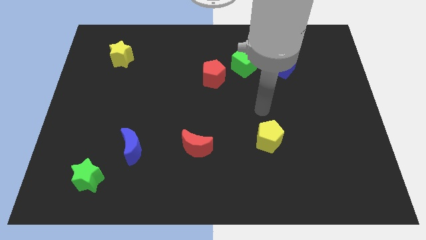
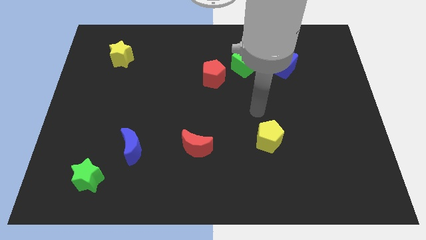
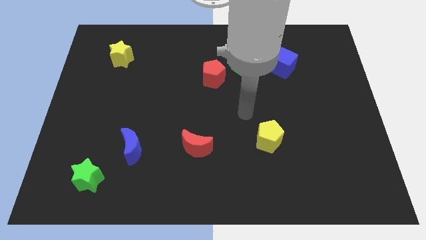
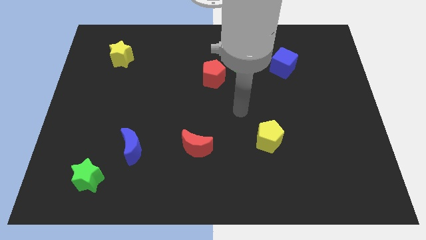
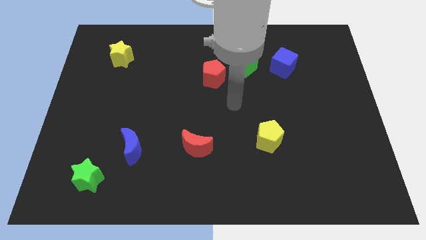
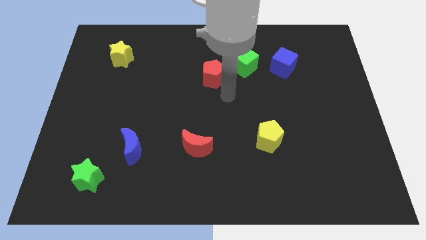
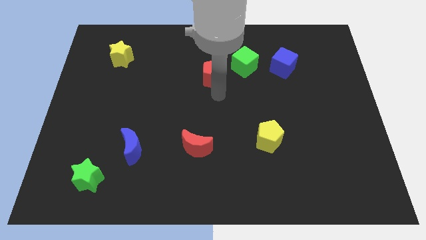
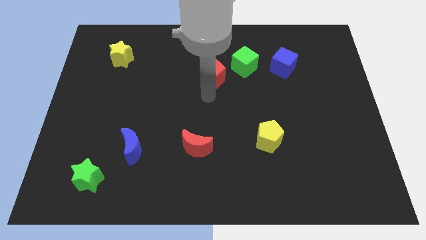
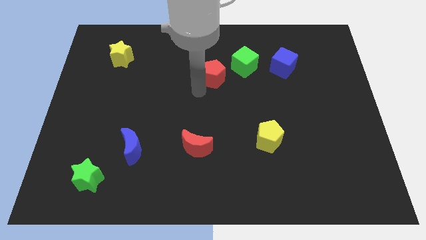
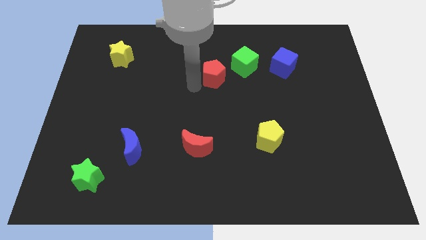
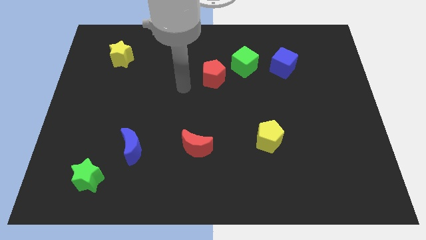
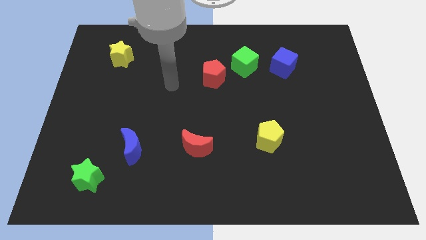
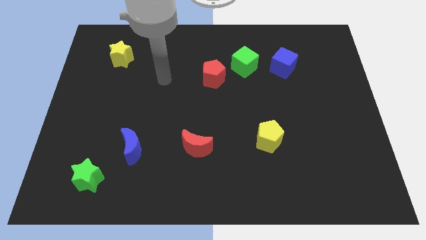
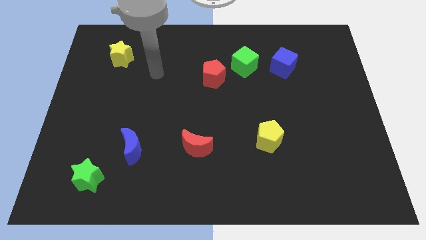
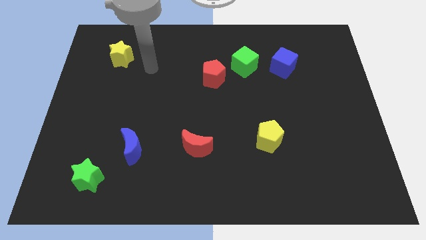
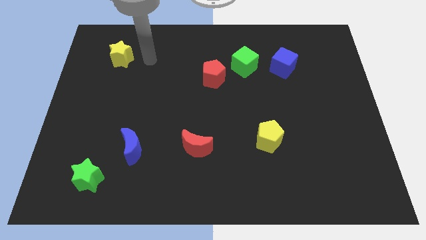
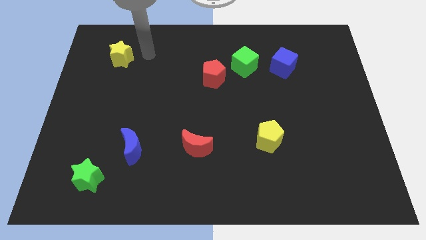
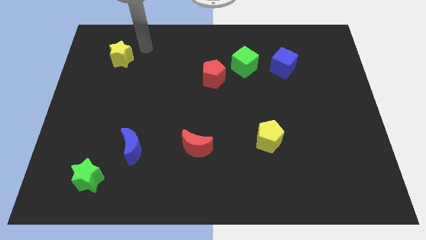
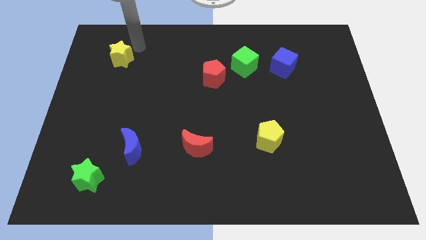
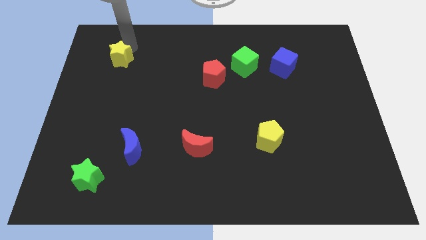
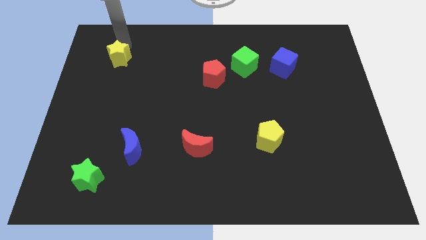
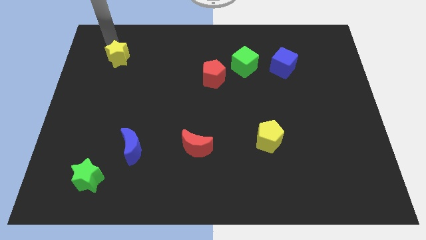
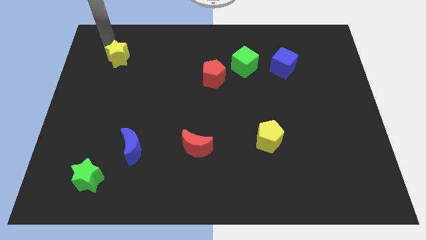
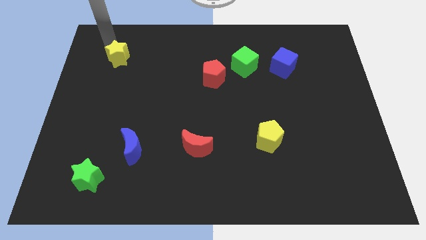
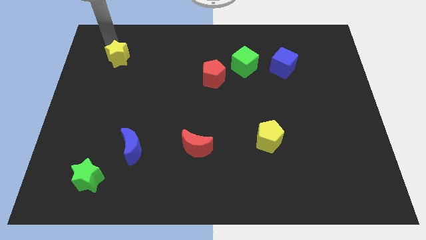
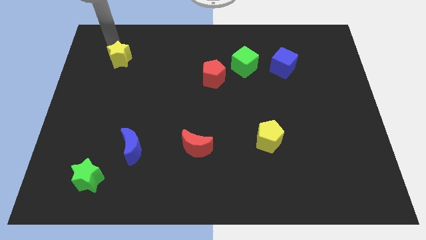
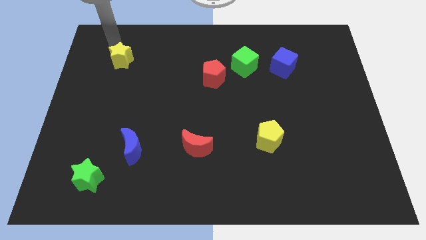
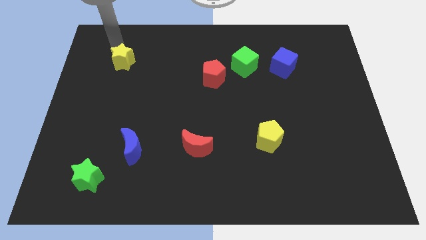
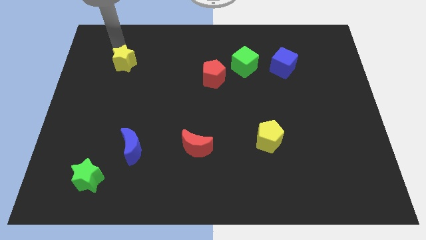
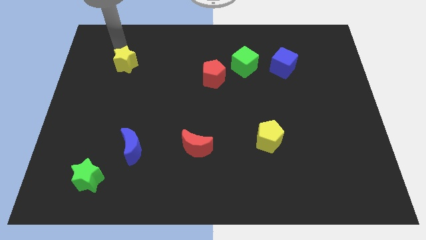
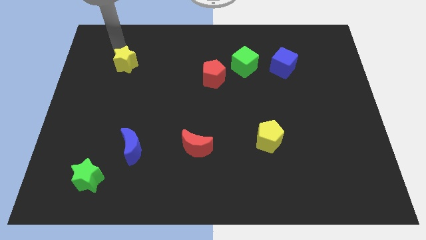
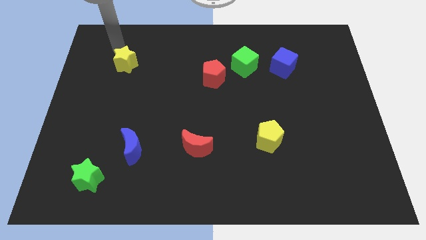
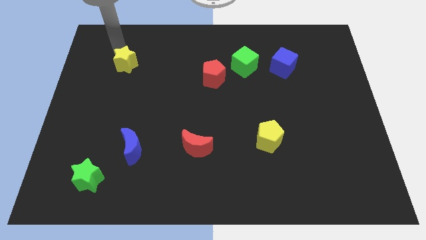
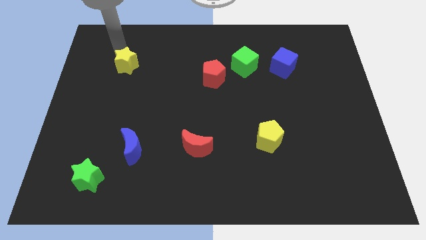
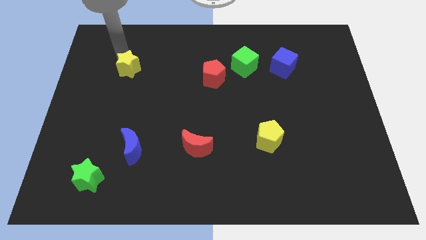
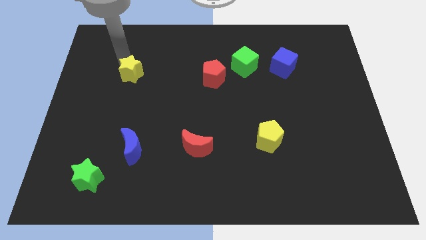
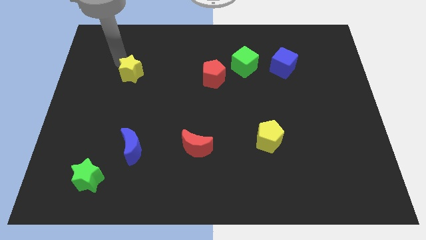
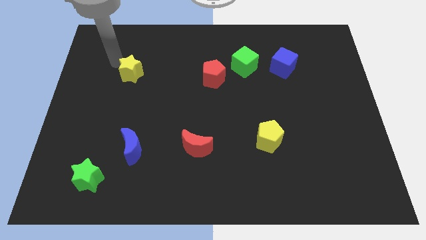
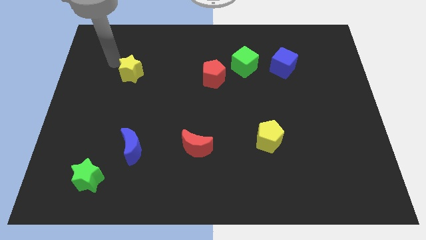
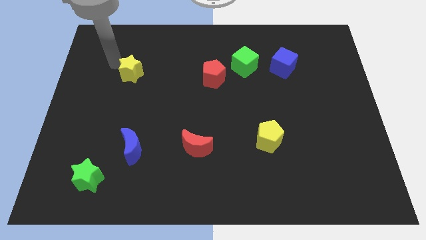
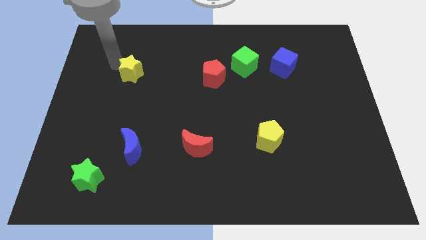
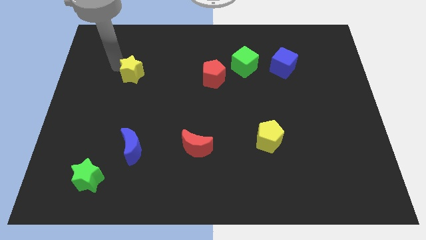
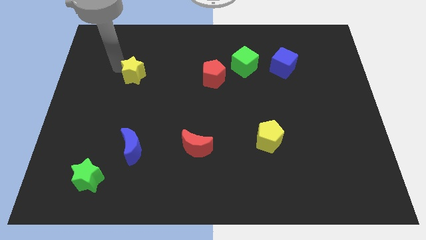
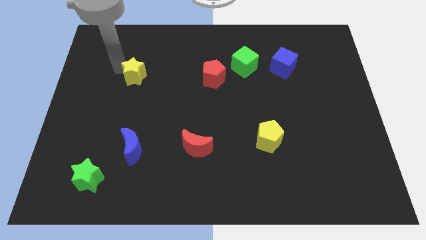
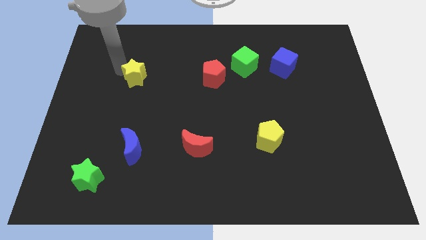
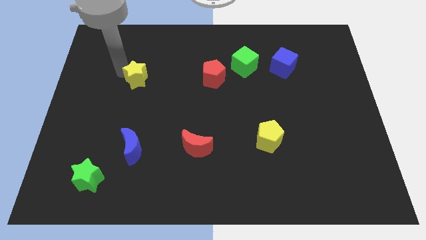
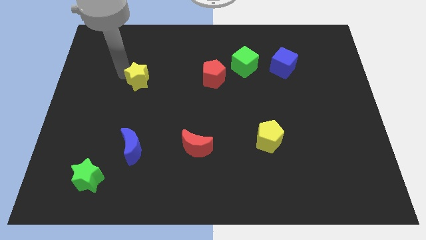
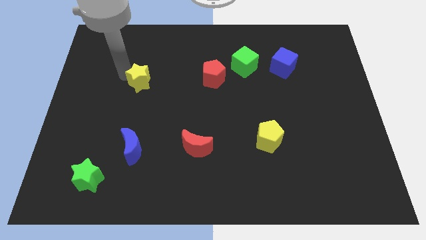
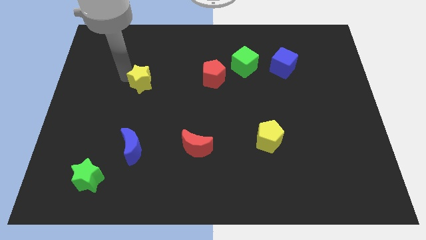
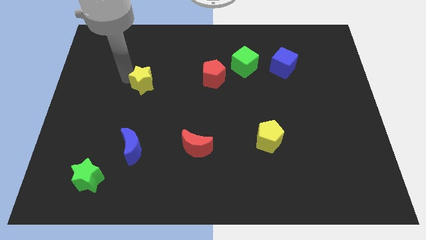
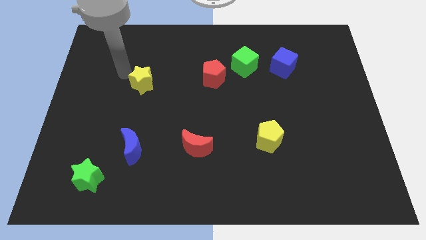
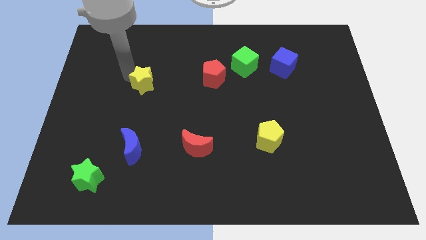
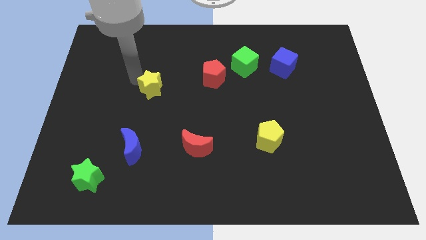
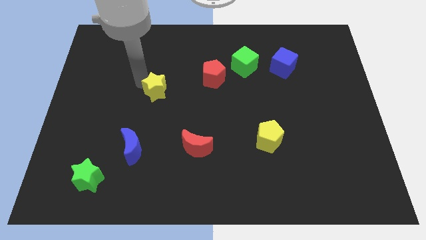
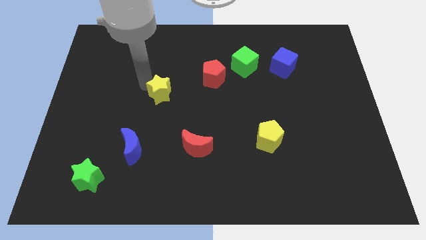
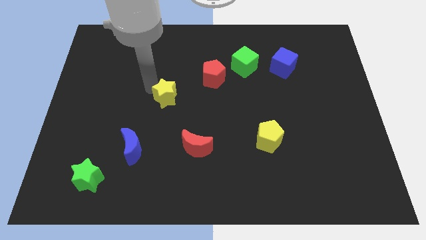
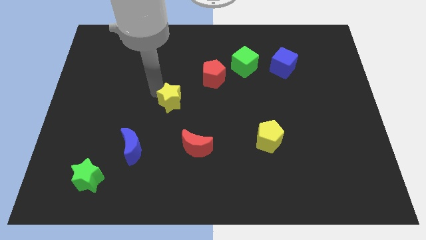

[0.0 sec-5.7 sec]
move the yellow star down and to the right

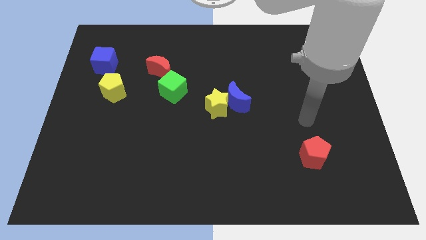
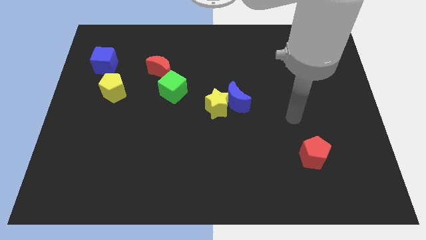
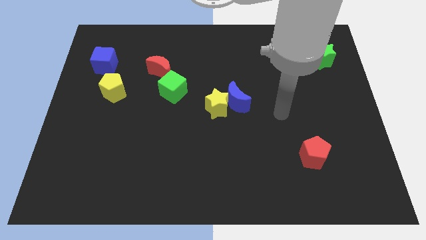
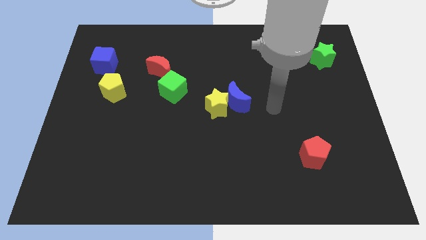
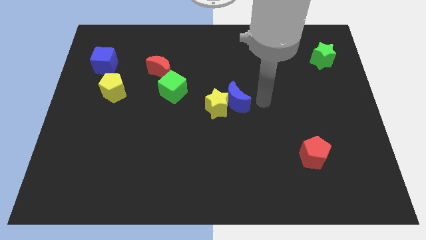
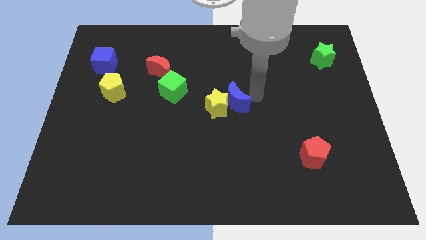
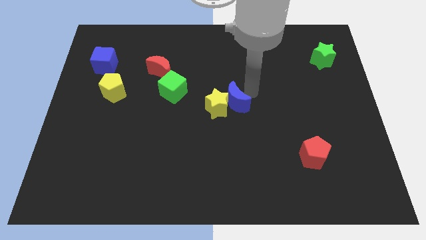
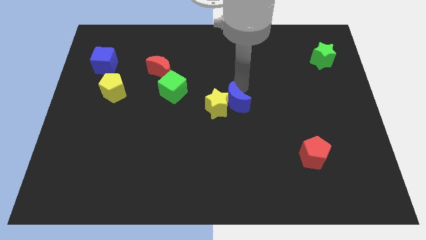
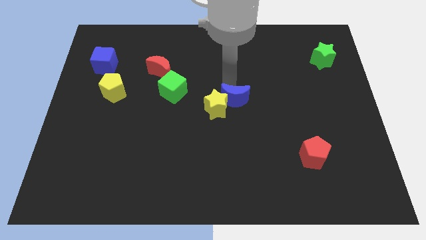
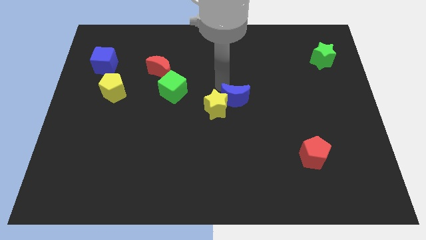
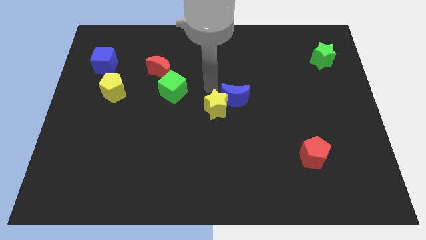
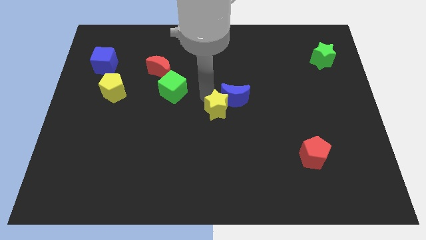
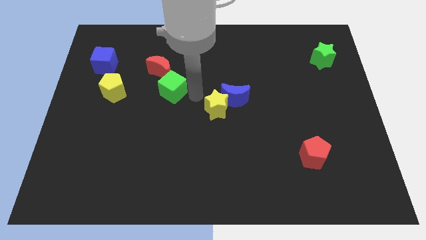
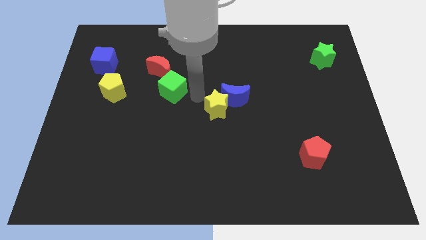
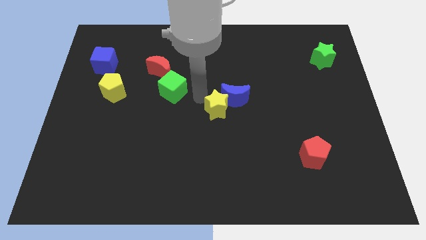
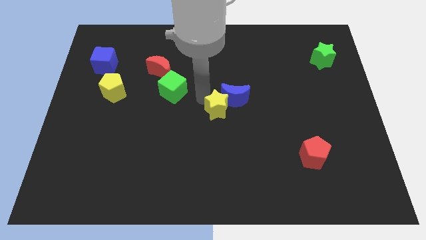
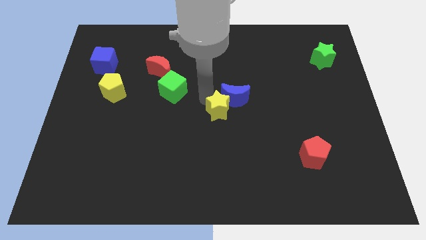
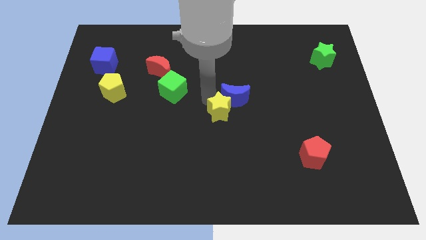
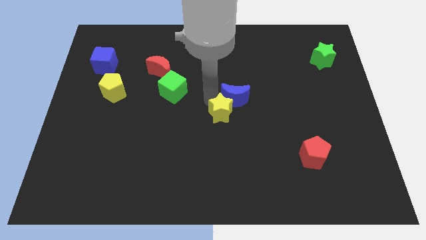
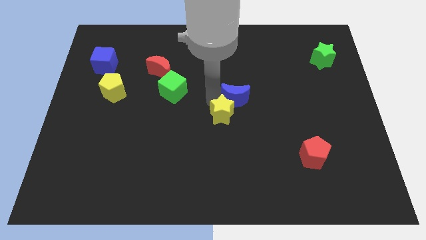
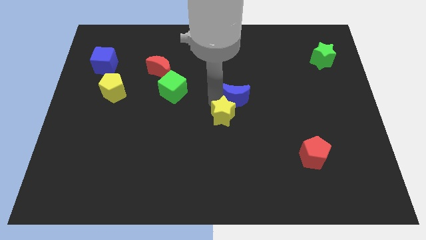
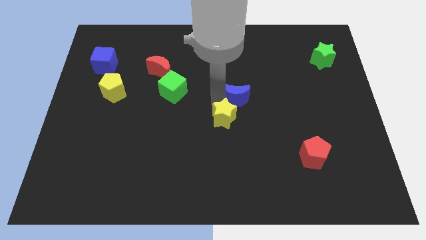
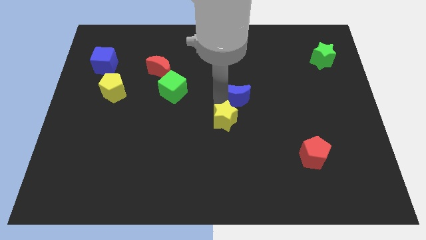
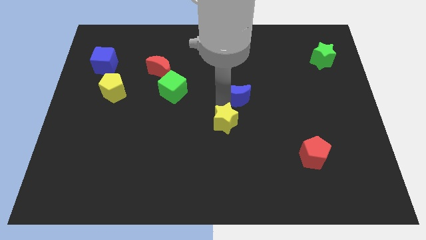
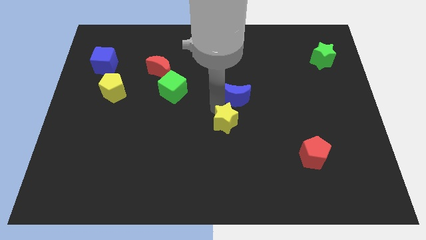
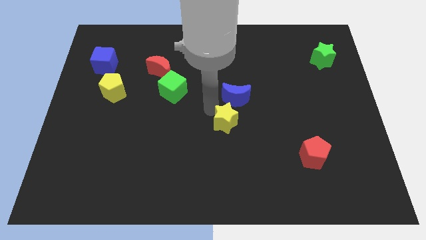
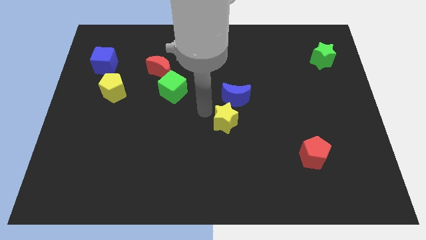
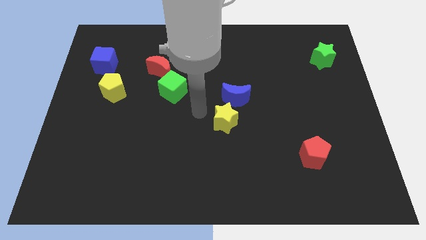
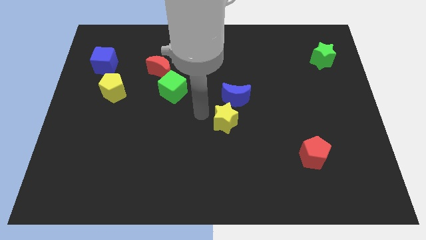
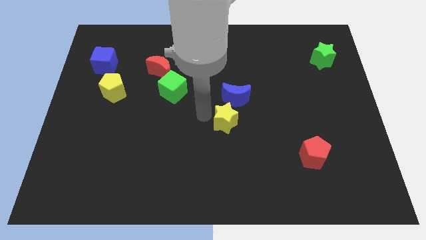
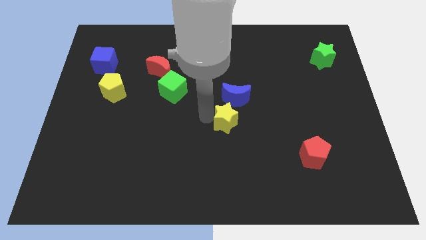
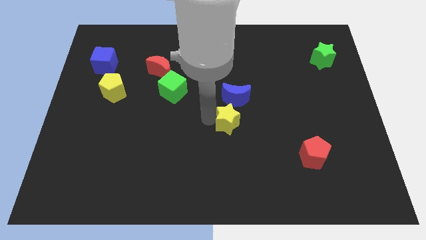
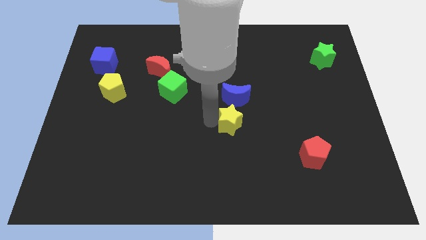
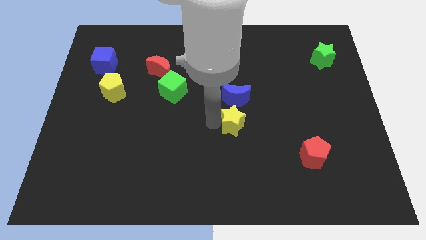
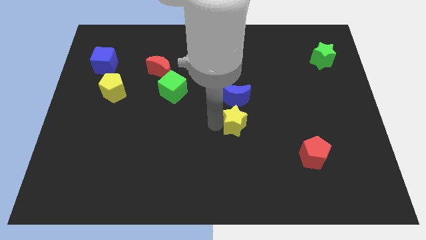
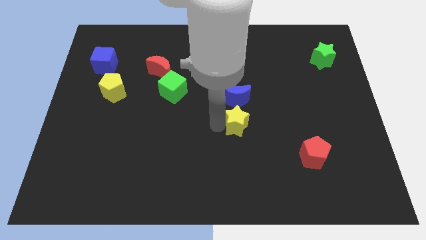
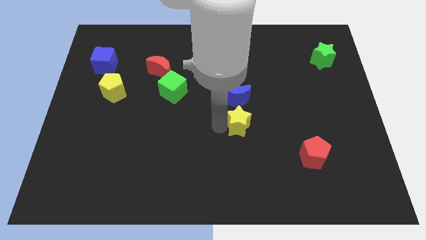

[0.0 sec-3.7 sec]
slide the yellow star somewhat downwards and to the right diagonally
